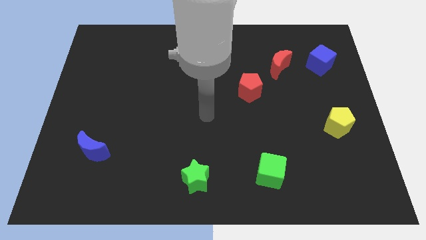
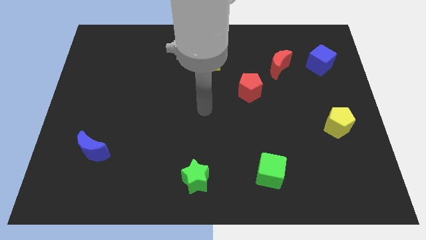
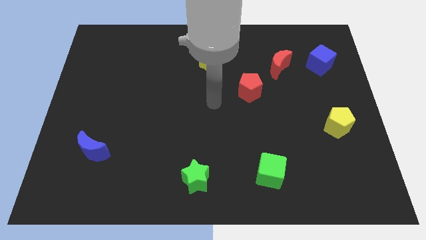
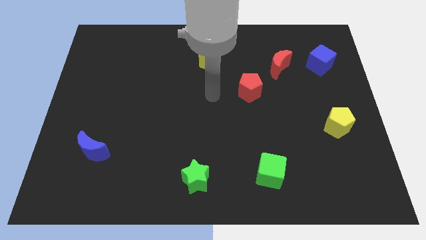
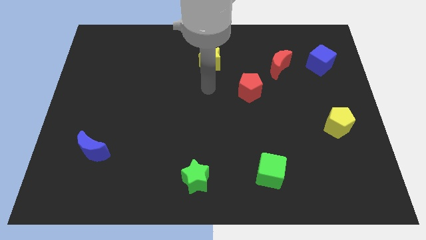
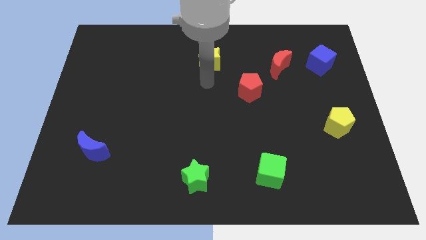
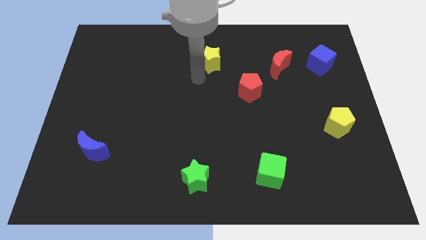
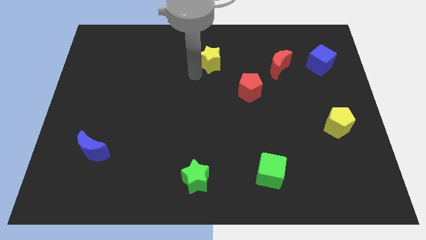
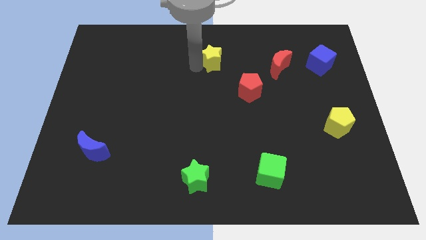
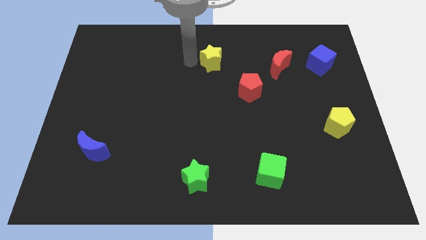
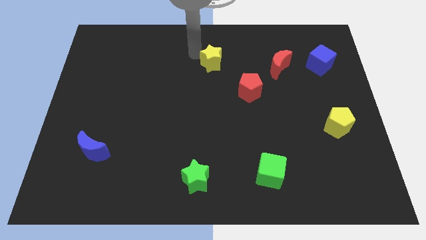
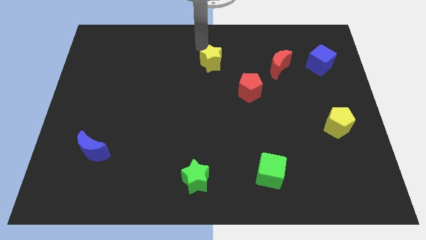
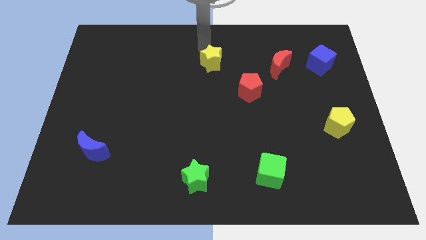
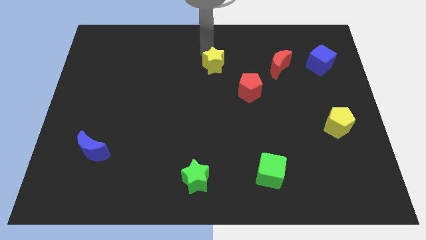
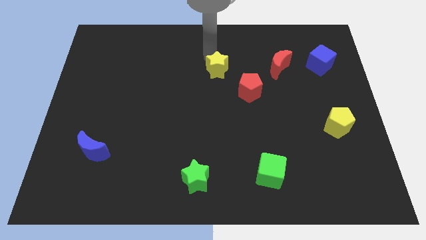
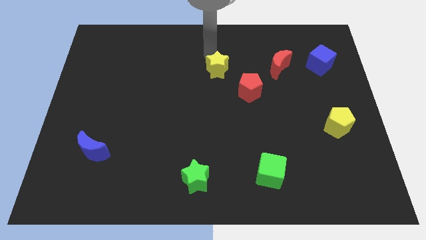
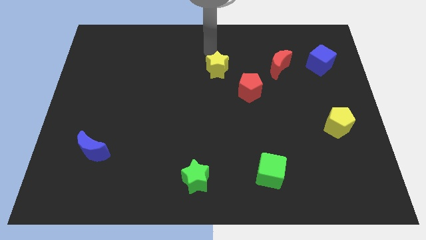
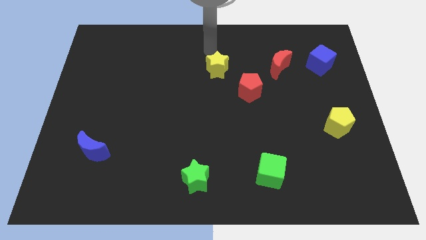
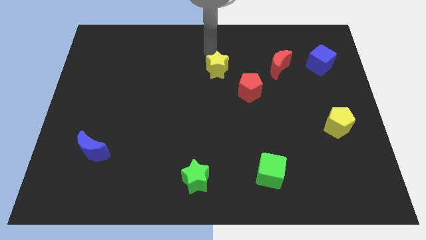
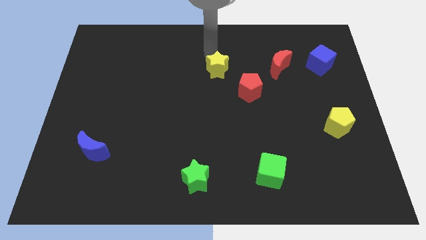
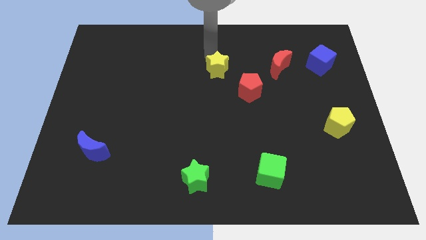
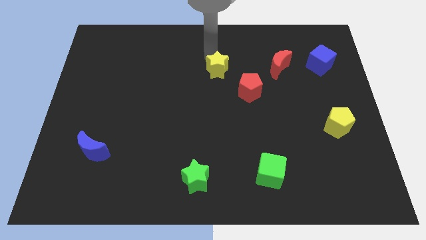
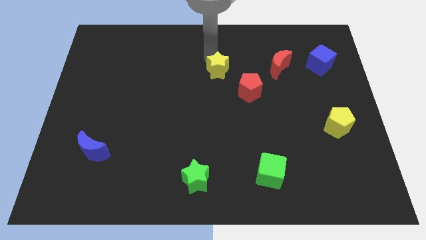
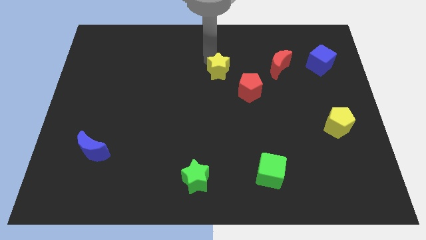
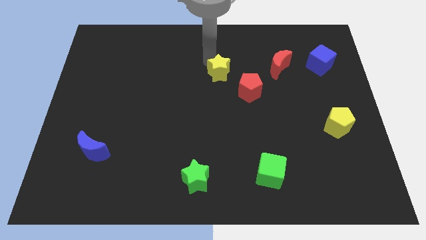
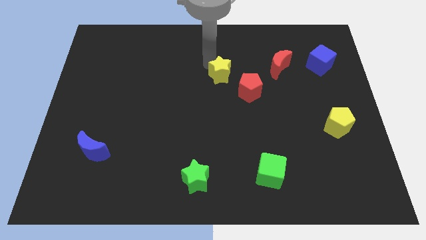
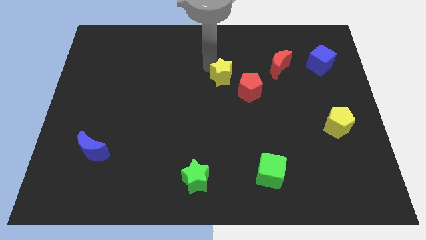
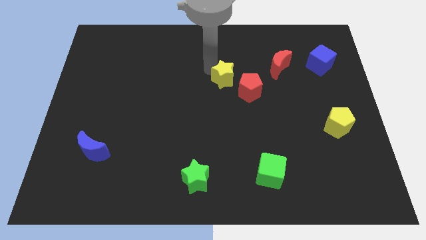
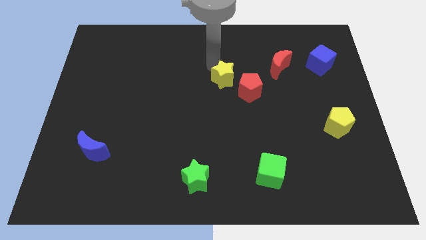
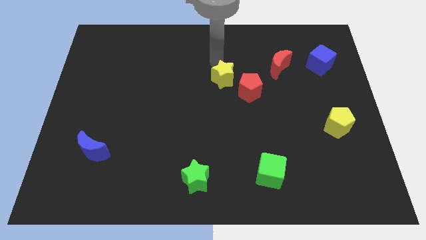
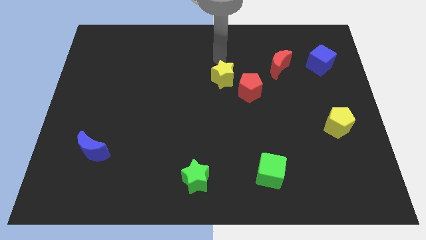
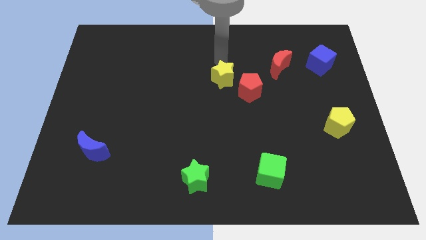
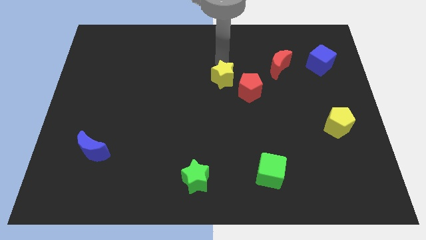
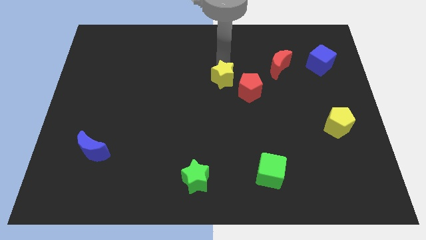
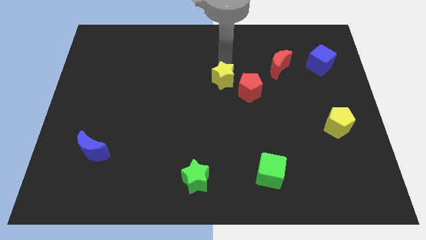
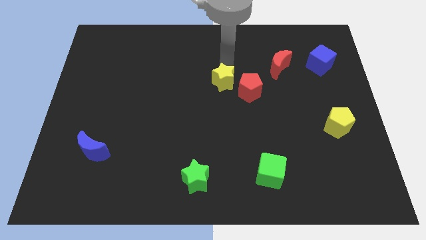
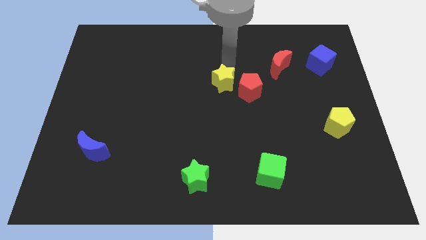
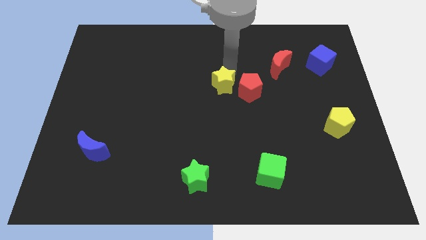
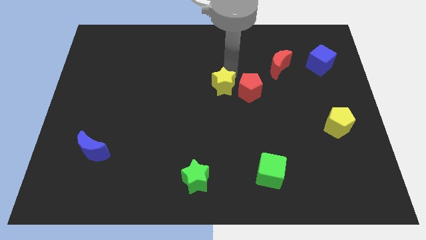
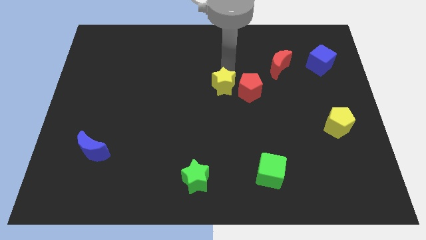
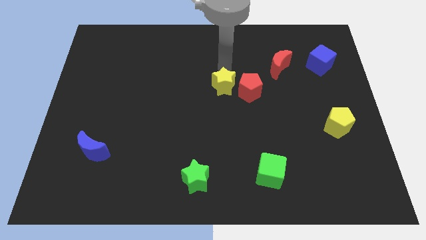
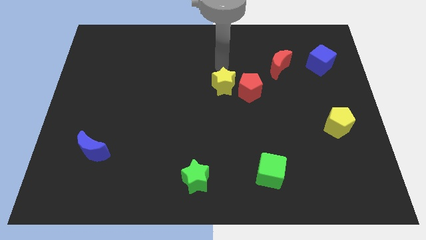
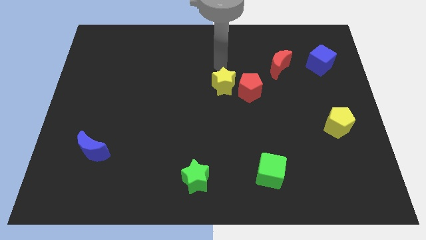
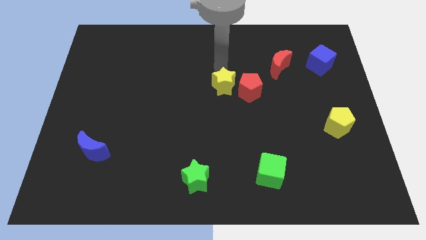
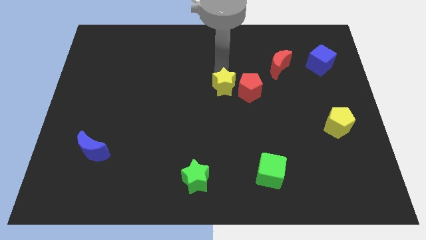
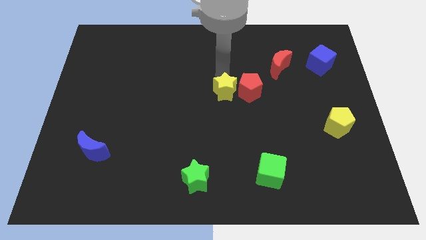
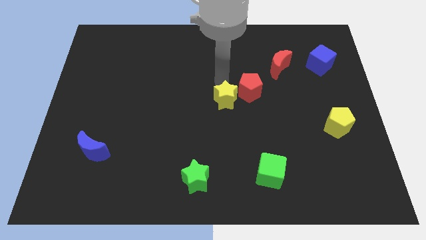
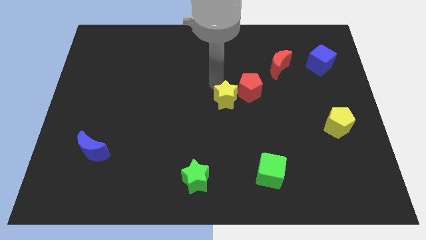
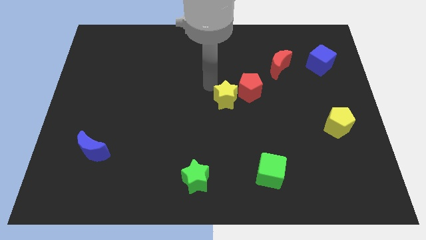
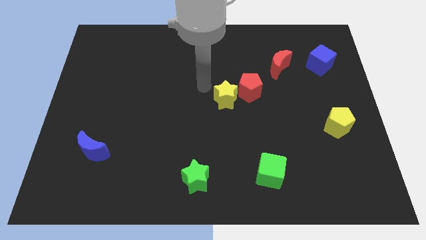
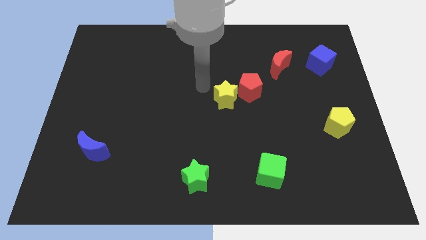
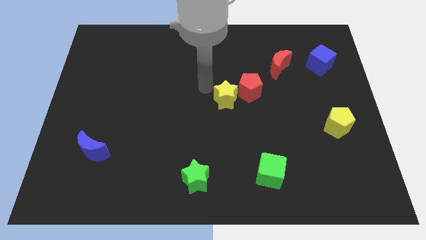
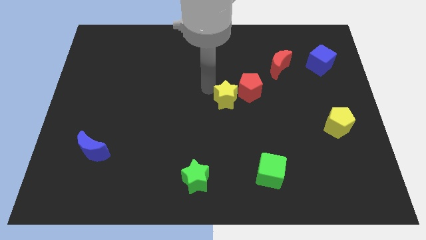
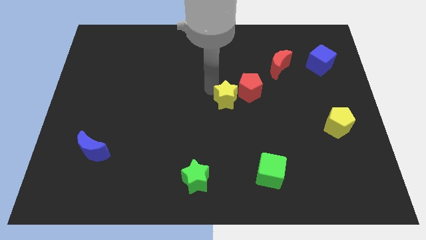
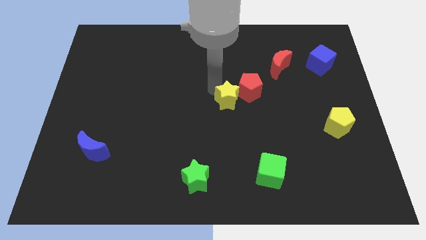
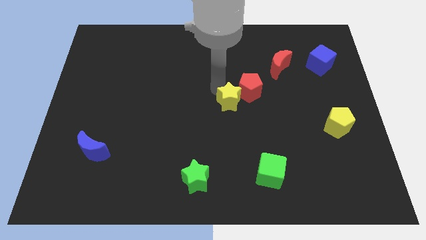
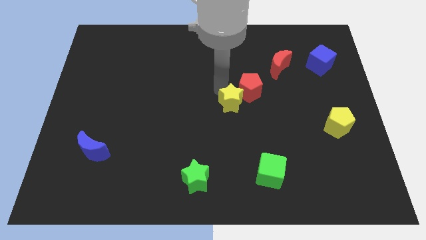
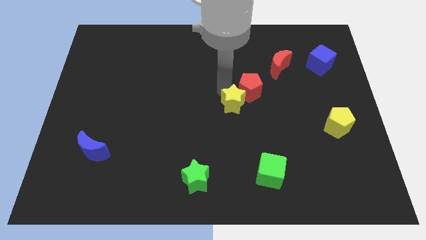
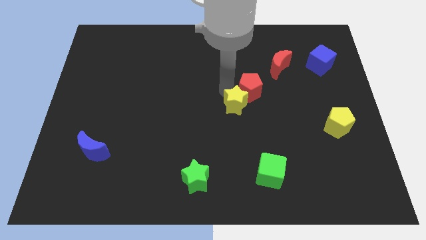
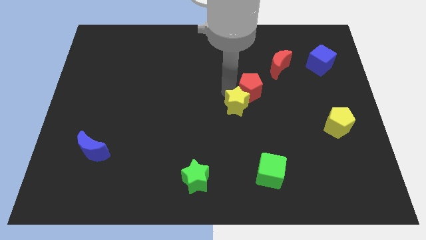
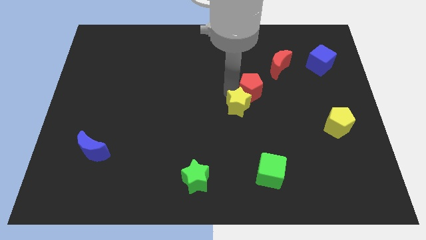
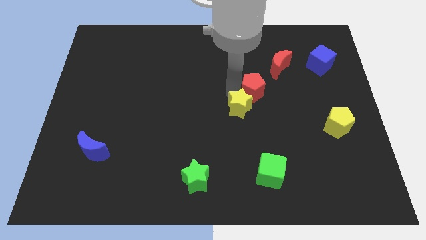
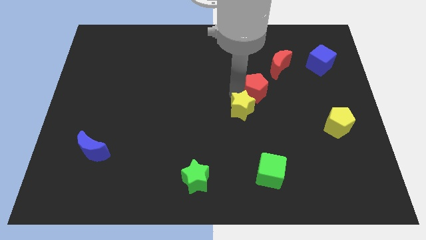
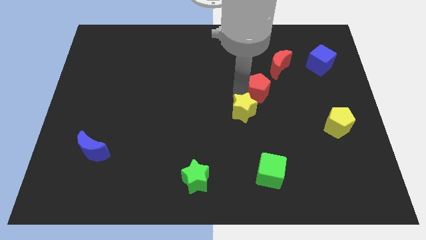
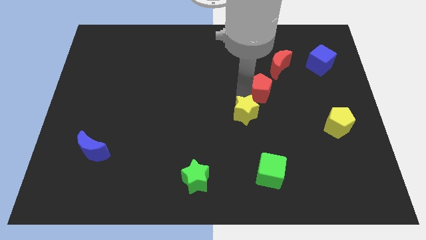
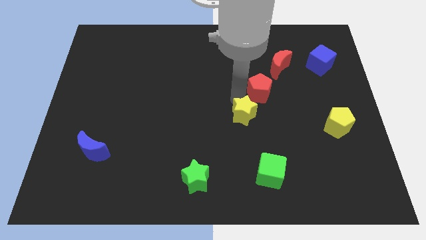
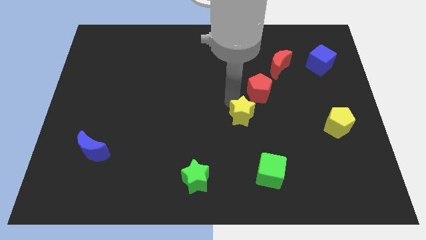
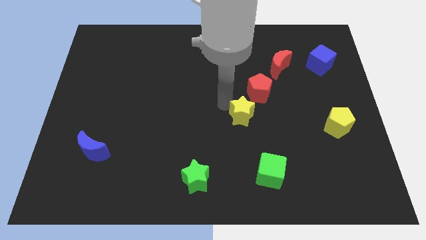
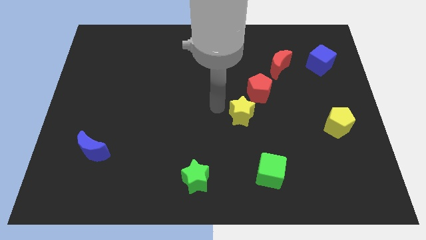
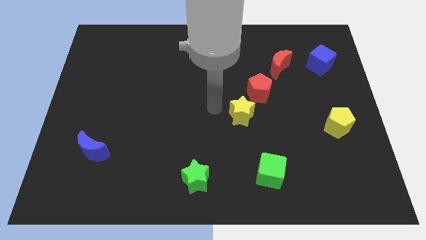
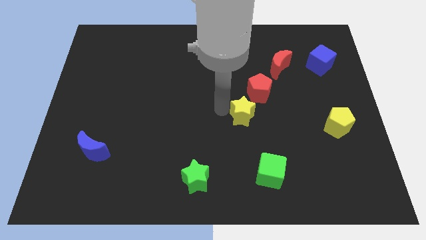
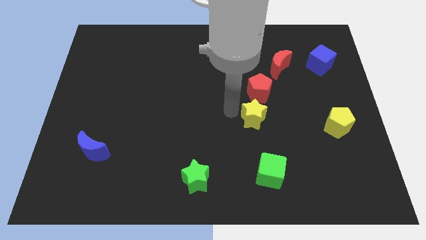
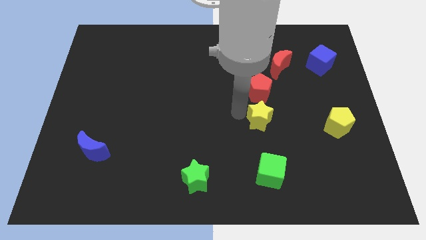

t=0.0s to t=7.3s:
push the yellow star downwards and then to the right

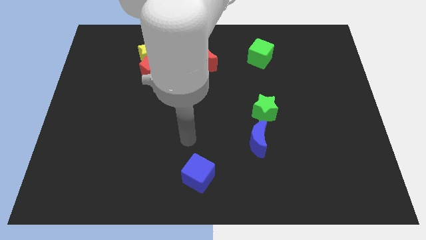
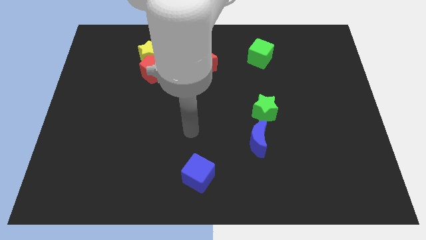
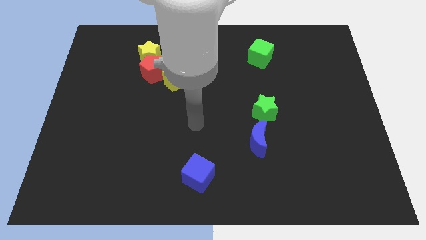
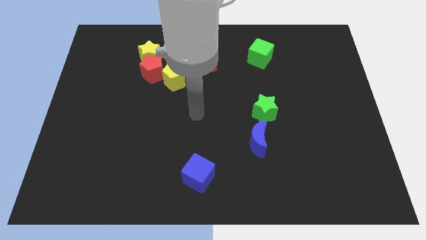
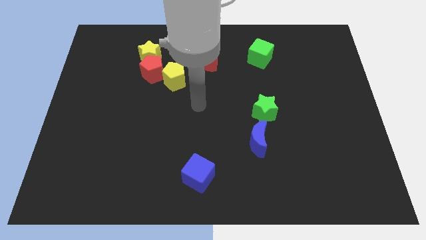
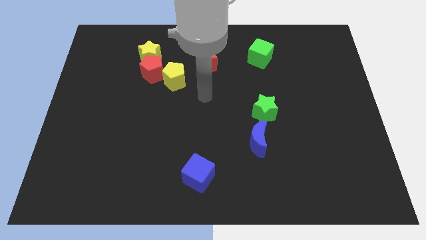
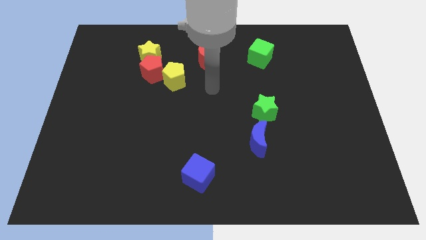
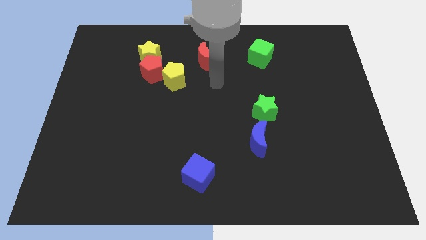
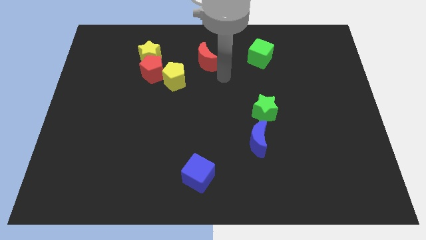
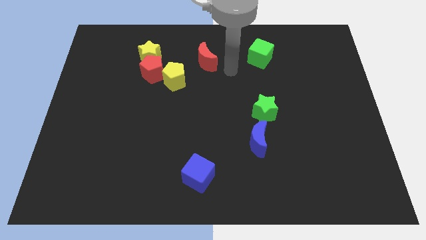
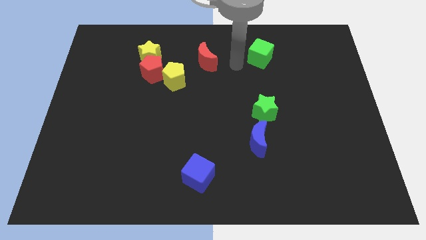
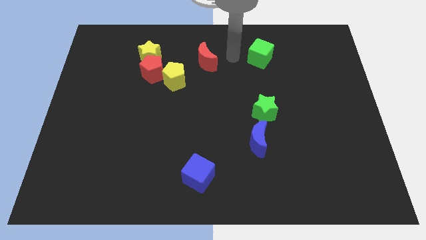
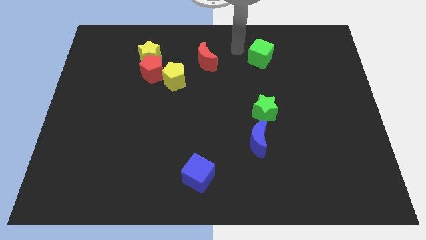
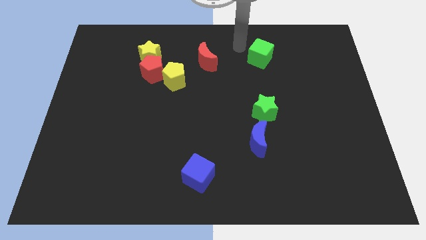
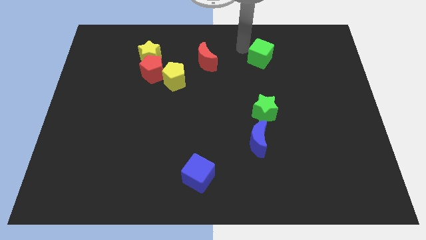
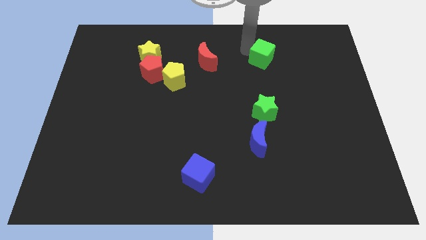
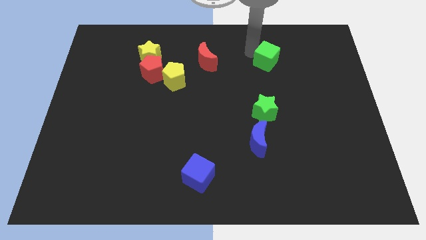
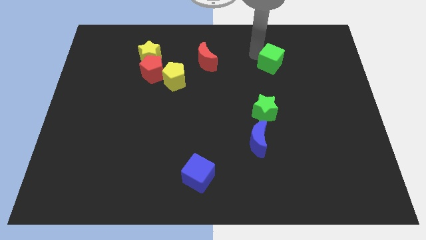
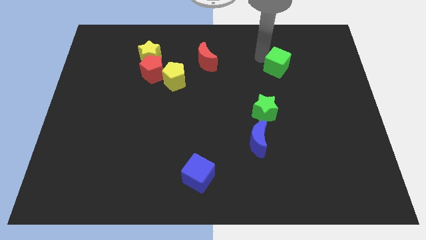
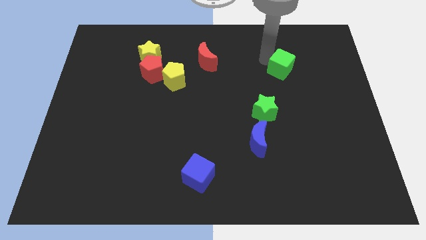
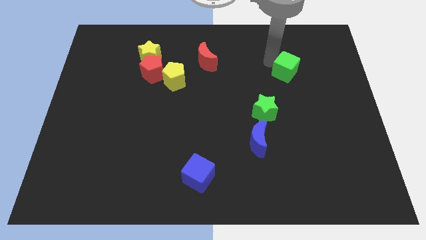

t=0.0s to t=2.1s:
push the green cube a little downwards and to the right diagonally
